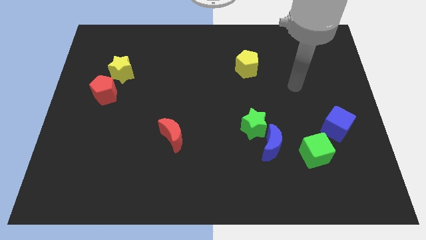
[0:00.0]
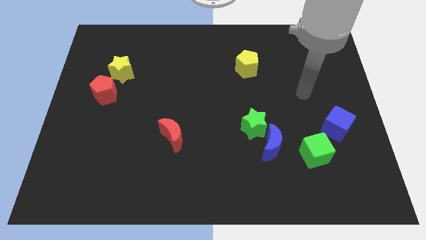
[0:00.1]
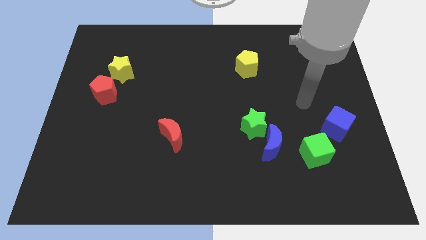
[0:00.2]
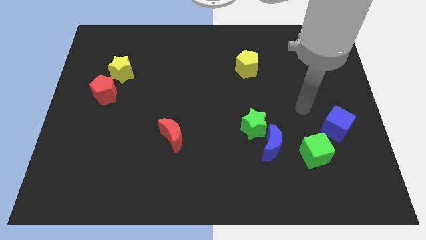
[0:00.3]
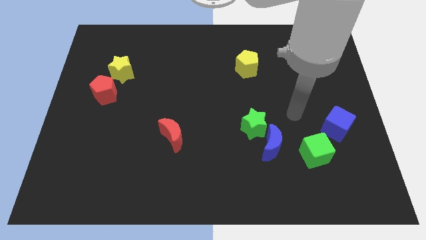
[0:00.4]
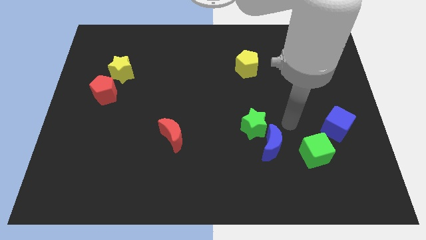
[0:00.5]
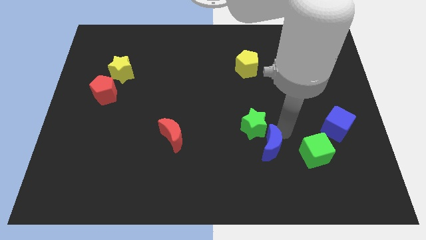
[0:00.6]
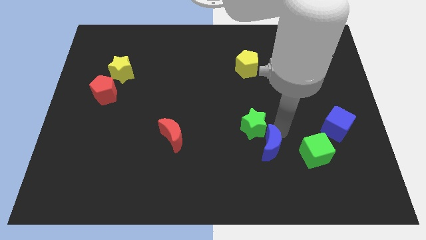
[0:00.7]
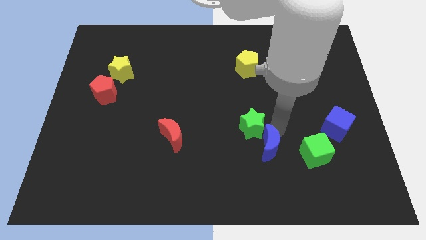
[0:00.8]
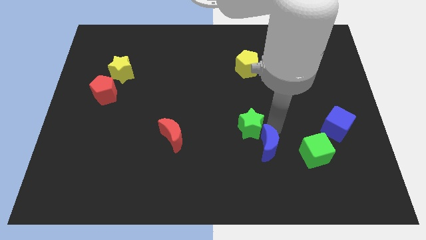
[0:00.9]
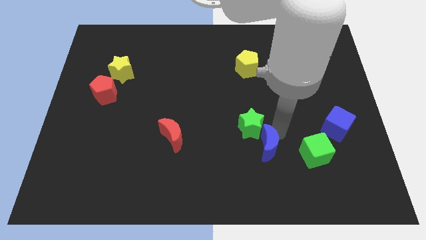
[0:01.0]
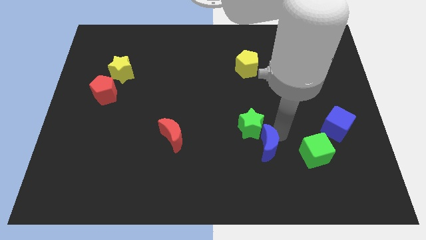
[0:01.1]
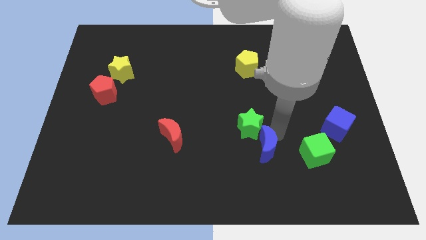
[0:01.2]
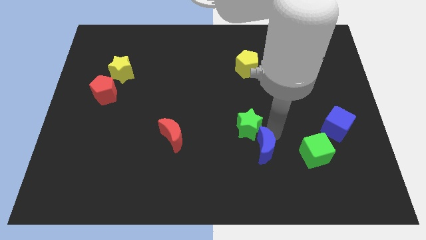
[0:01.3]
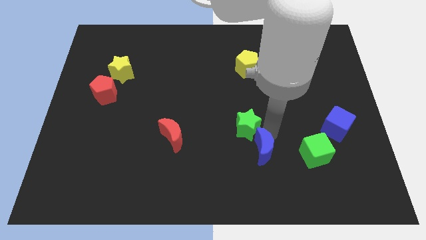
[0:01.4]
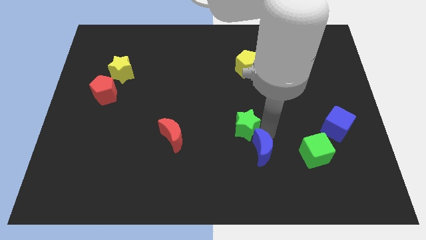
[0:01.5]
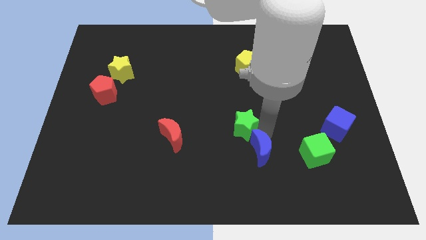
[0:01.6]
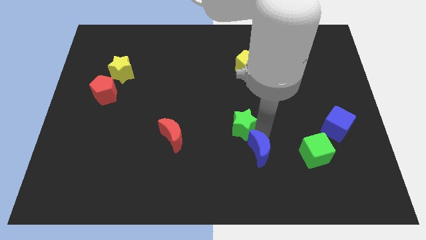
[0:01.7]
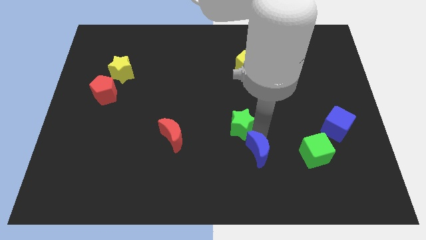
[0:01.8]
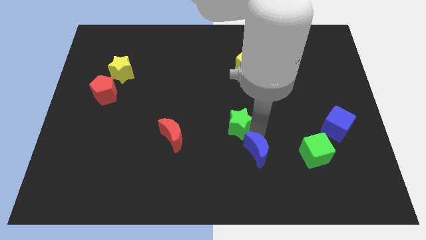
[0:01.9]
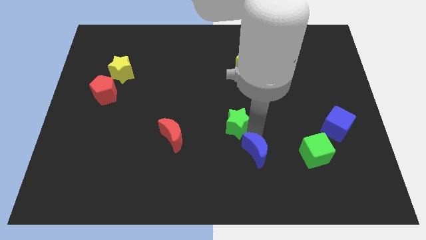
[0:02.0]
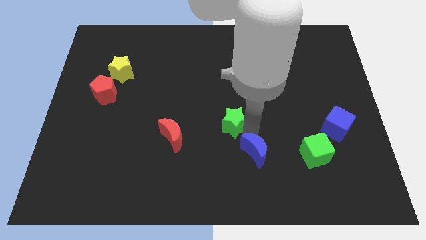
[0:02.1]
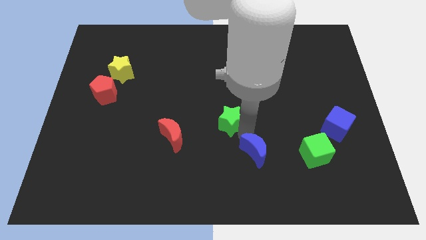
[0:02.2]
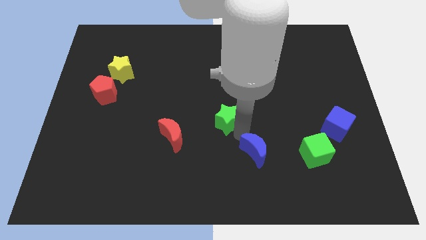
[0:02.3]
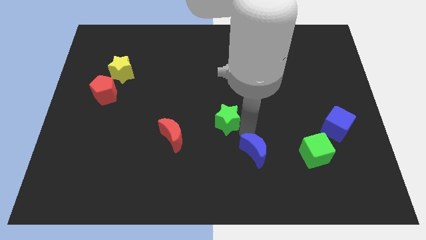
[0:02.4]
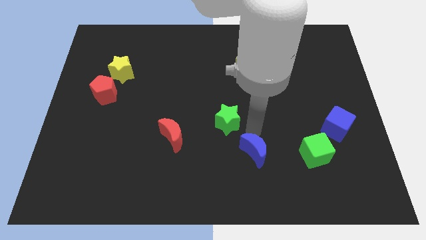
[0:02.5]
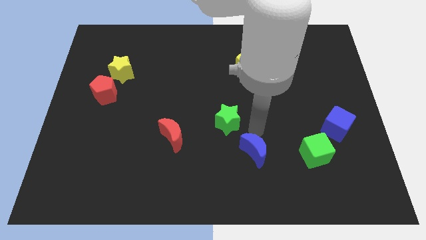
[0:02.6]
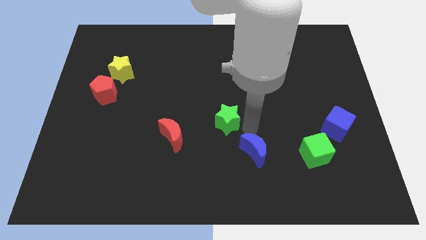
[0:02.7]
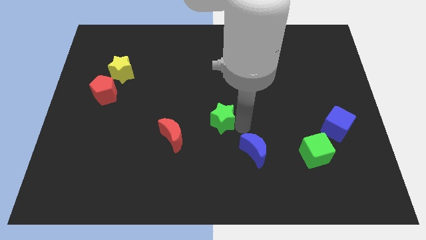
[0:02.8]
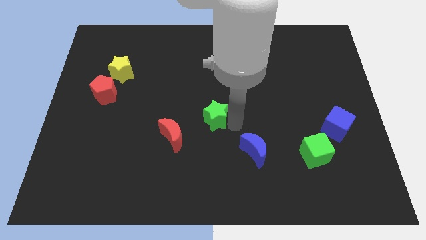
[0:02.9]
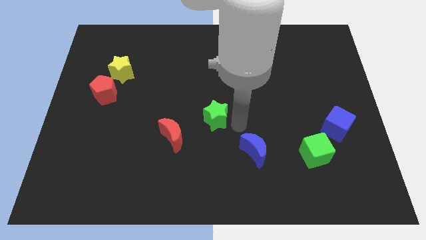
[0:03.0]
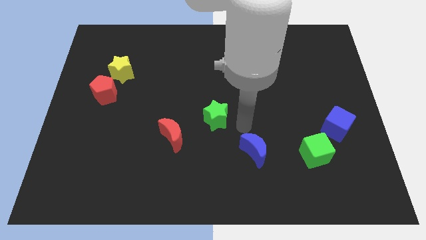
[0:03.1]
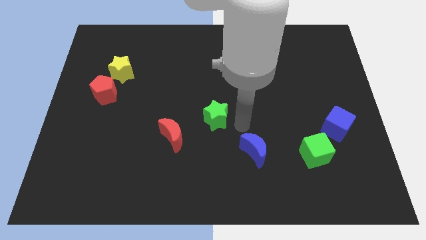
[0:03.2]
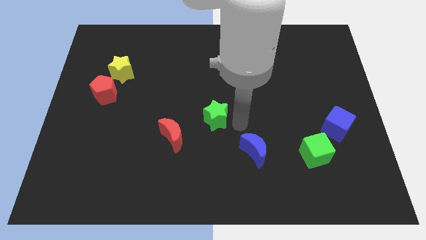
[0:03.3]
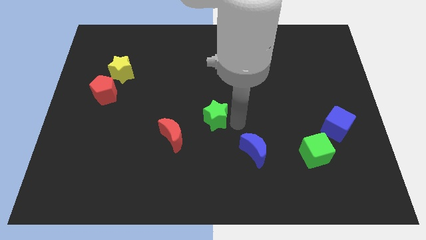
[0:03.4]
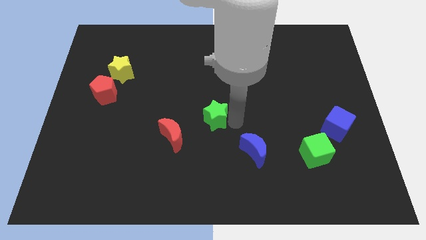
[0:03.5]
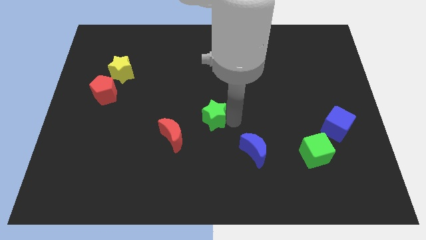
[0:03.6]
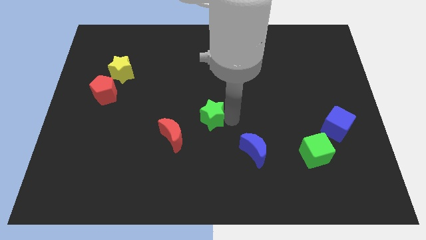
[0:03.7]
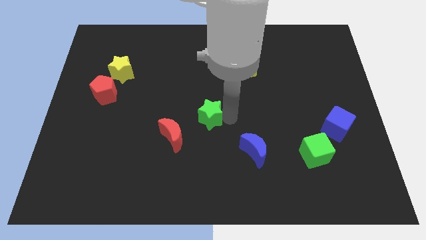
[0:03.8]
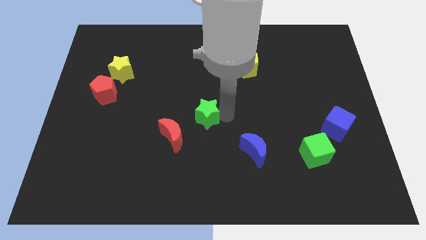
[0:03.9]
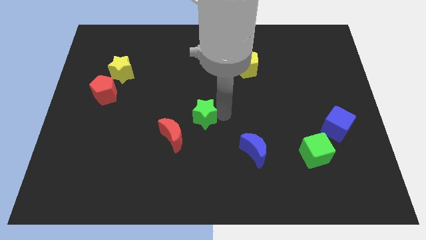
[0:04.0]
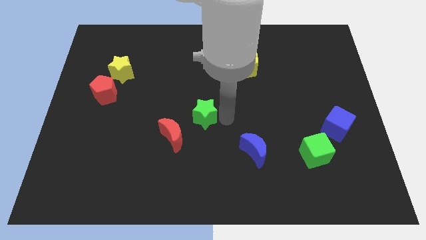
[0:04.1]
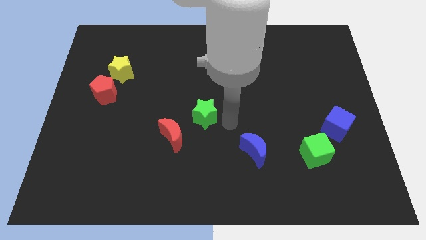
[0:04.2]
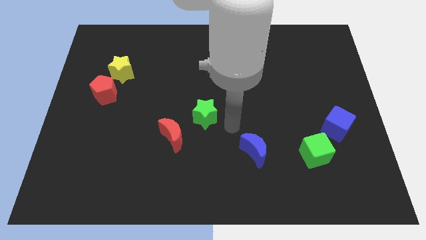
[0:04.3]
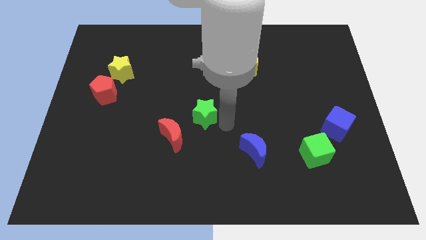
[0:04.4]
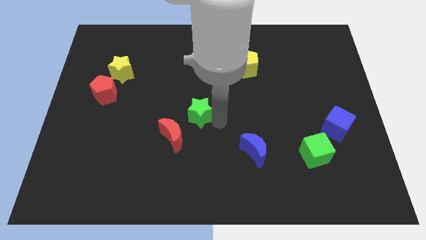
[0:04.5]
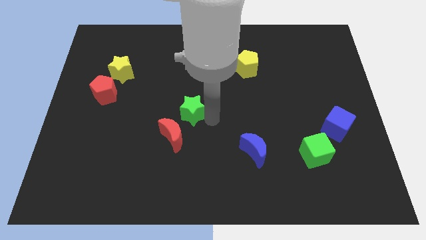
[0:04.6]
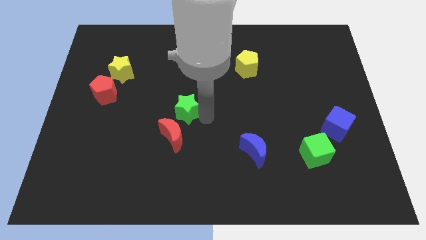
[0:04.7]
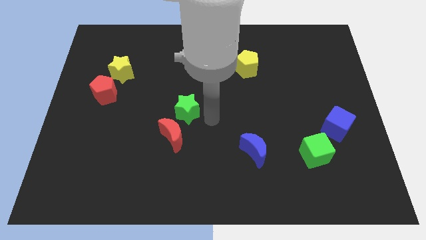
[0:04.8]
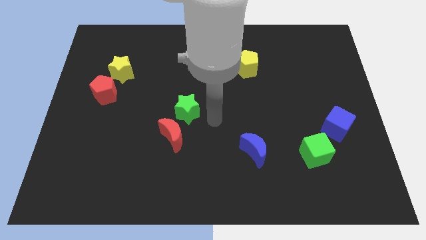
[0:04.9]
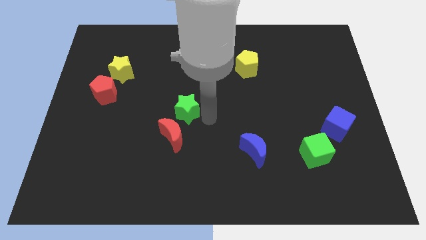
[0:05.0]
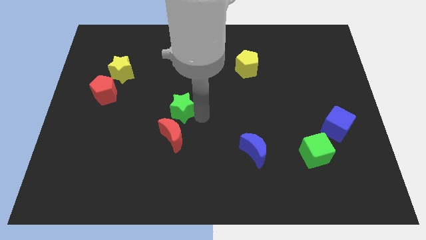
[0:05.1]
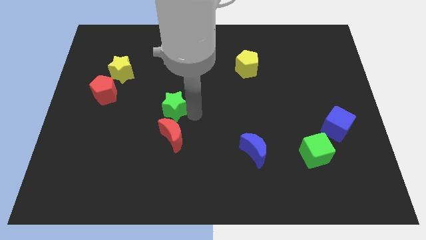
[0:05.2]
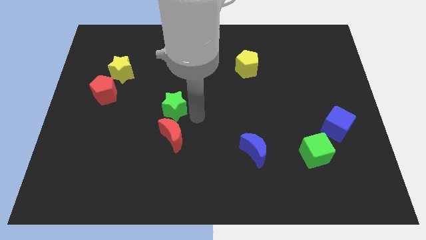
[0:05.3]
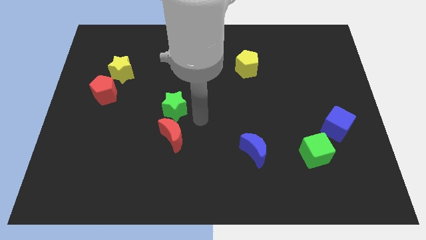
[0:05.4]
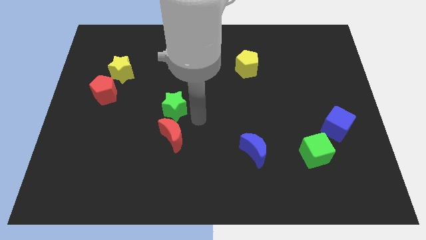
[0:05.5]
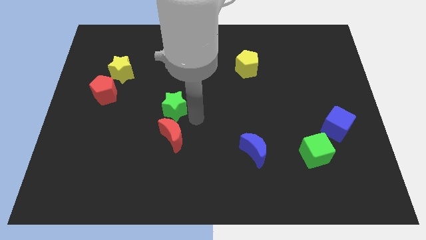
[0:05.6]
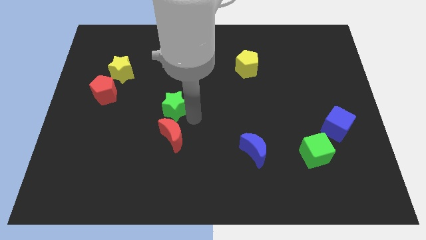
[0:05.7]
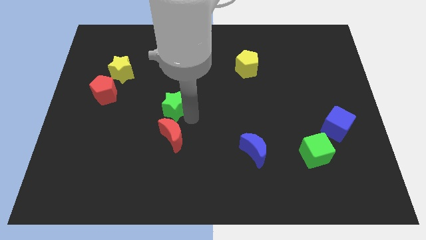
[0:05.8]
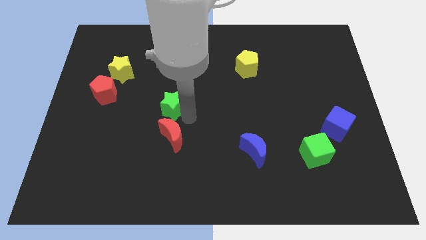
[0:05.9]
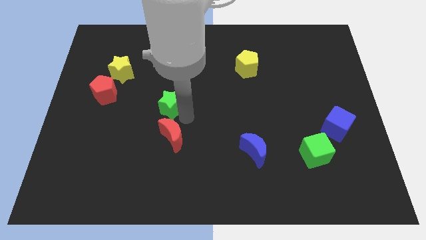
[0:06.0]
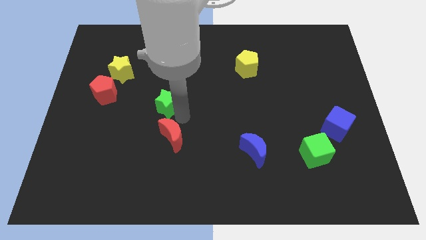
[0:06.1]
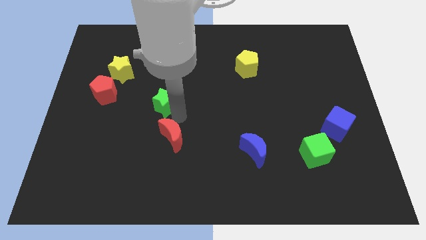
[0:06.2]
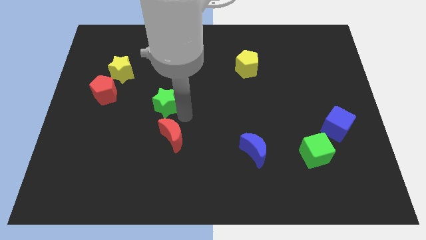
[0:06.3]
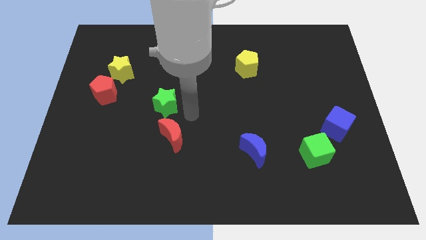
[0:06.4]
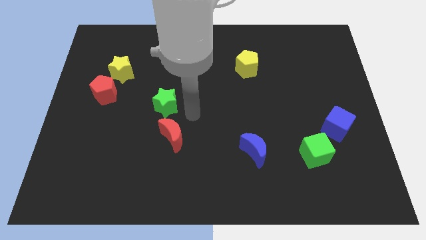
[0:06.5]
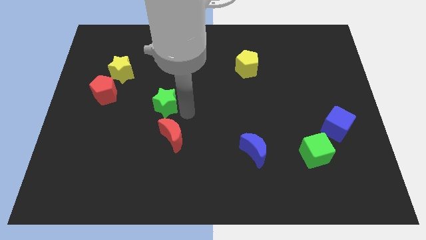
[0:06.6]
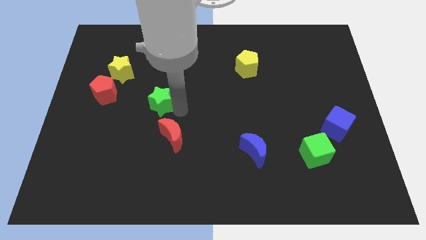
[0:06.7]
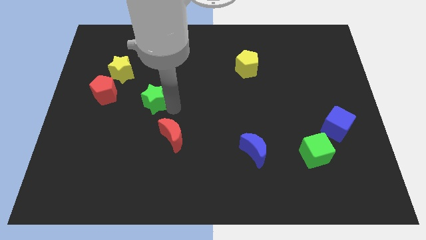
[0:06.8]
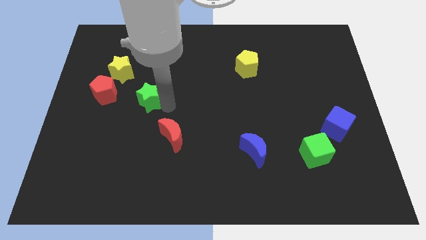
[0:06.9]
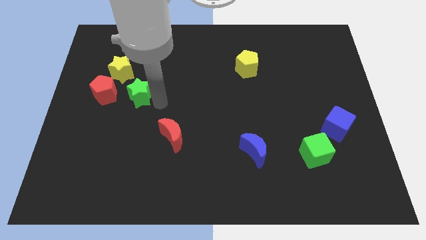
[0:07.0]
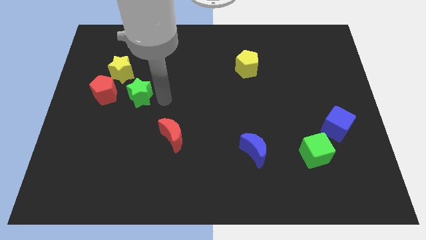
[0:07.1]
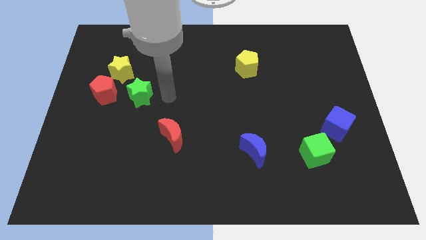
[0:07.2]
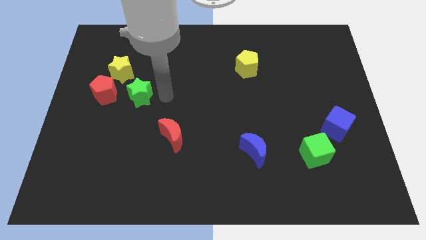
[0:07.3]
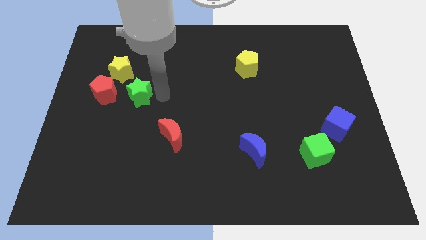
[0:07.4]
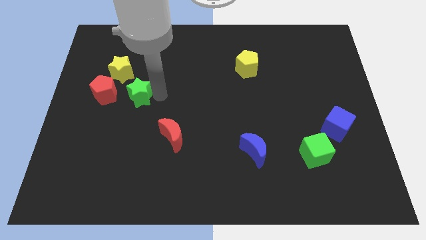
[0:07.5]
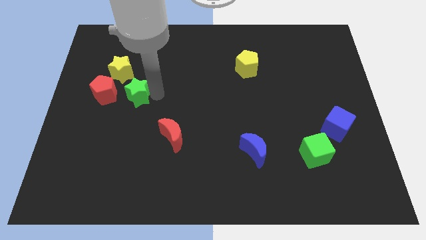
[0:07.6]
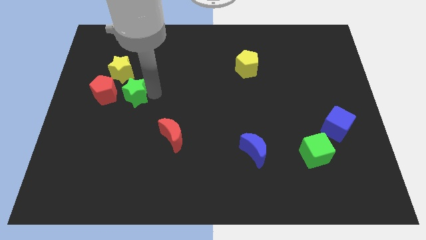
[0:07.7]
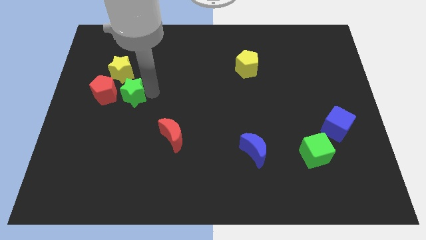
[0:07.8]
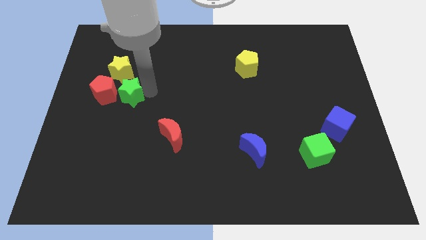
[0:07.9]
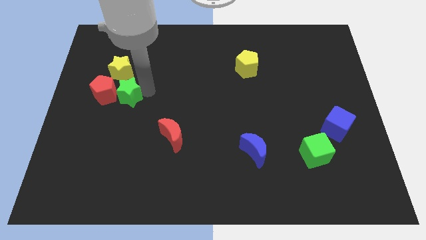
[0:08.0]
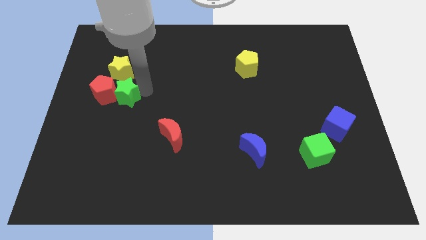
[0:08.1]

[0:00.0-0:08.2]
put the green star towards the red pentagon
